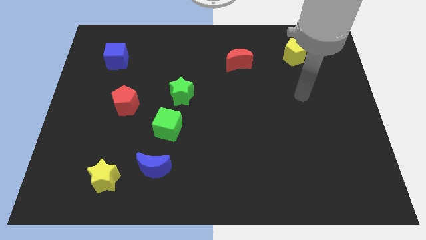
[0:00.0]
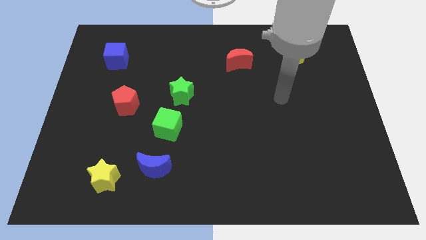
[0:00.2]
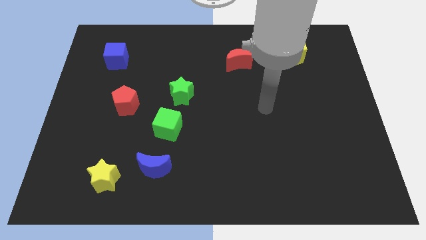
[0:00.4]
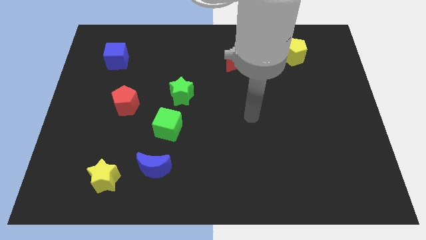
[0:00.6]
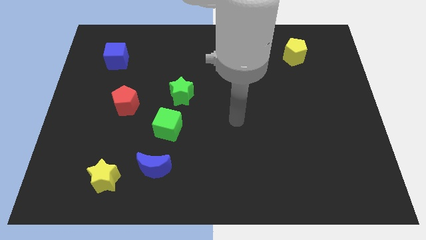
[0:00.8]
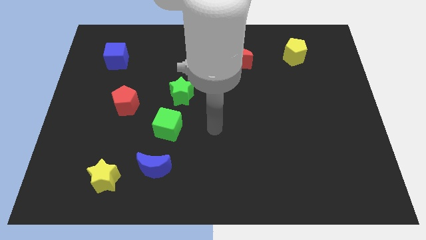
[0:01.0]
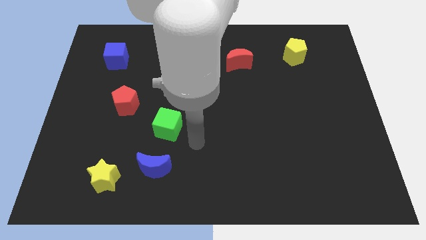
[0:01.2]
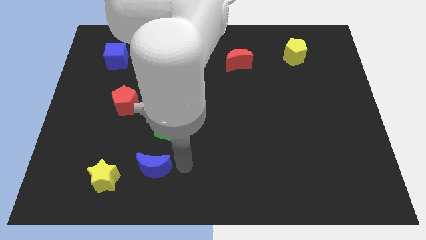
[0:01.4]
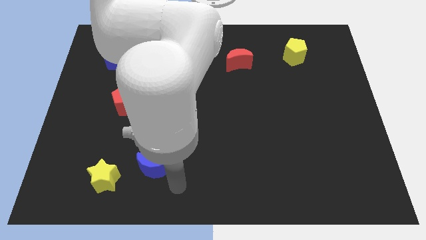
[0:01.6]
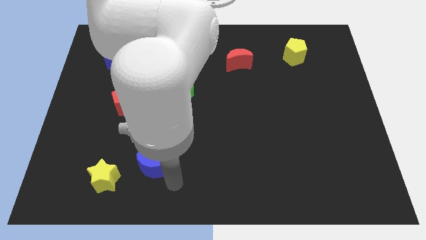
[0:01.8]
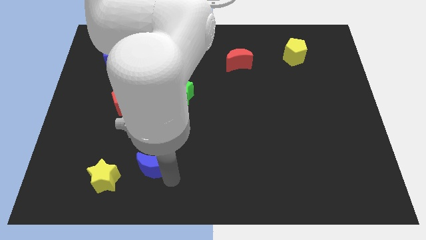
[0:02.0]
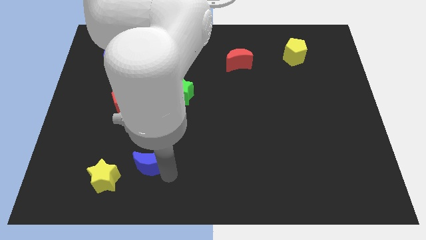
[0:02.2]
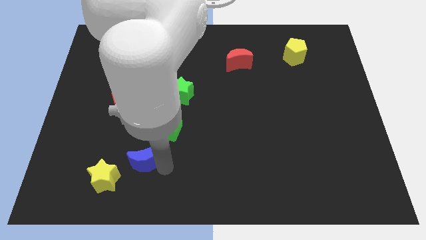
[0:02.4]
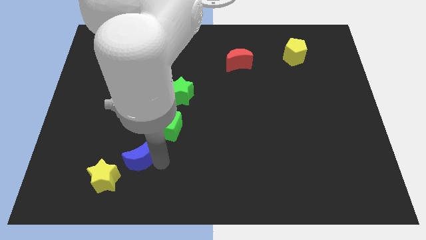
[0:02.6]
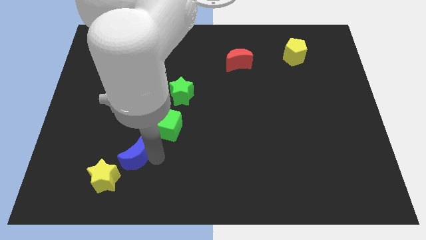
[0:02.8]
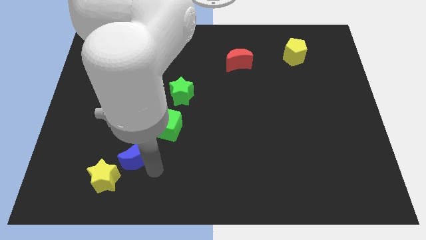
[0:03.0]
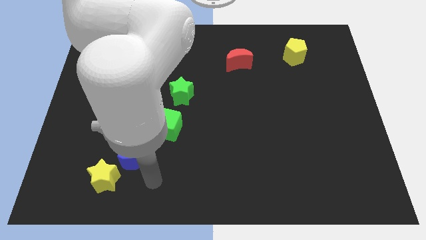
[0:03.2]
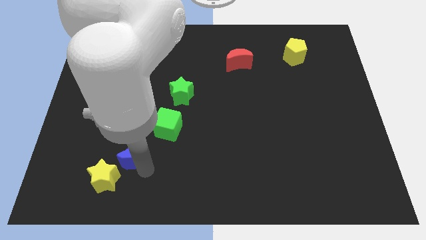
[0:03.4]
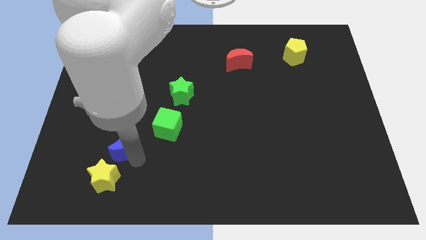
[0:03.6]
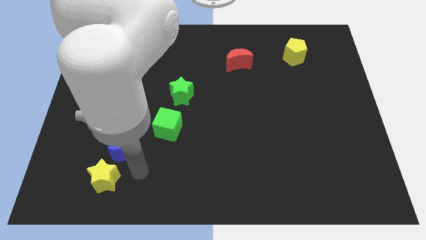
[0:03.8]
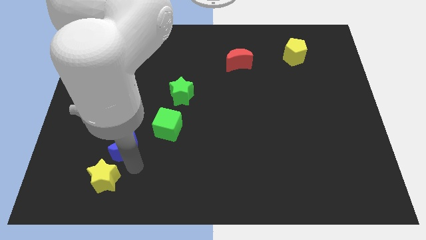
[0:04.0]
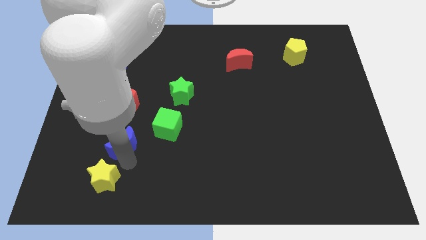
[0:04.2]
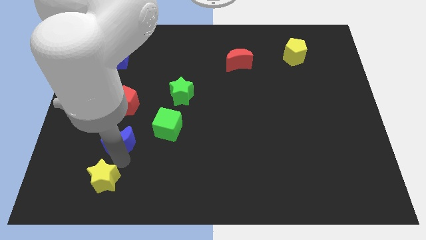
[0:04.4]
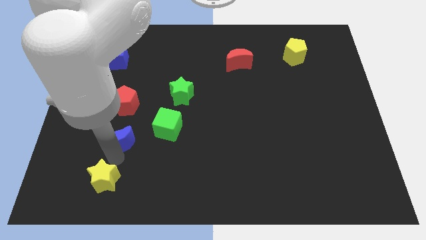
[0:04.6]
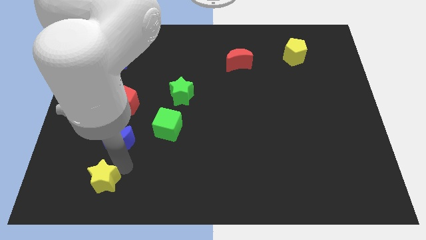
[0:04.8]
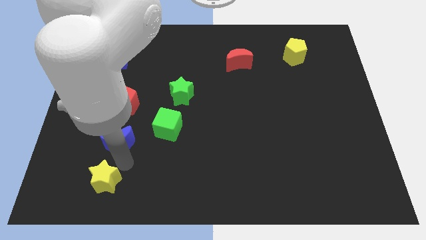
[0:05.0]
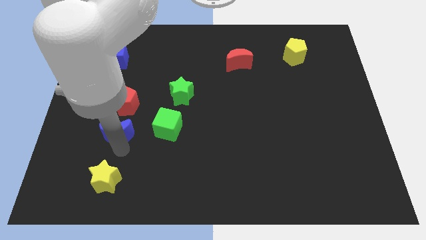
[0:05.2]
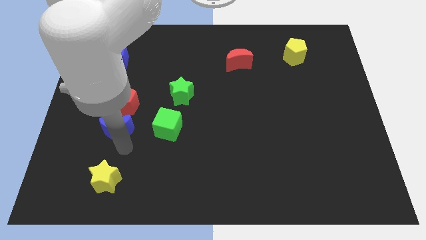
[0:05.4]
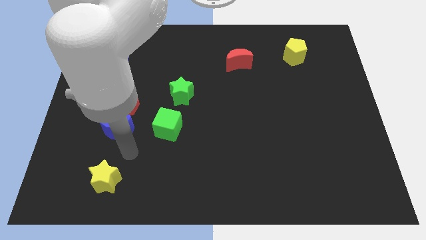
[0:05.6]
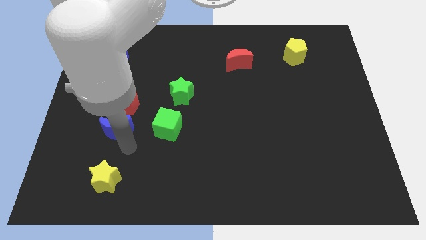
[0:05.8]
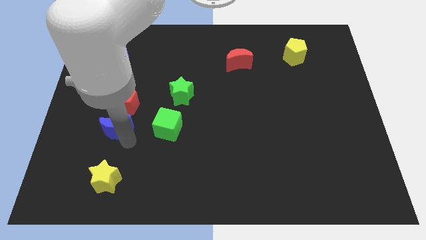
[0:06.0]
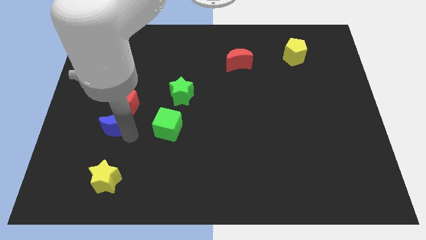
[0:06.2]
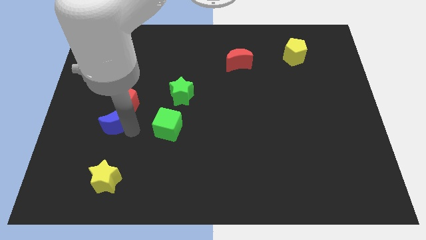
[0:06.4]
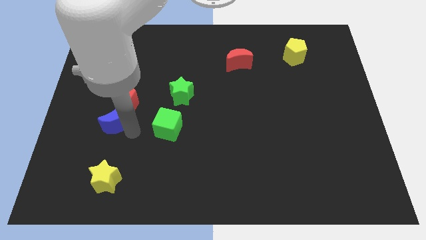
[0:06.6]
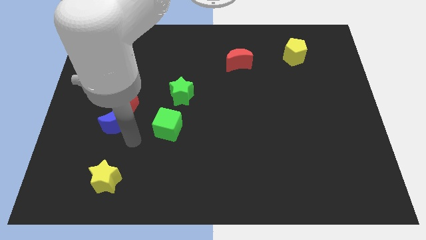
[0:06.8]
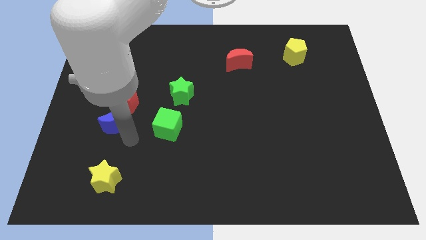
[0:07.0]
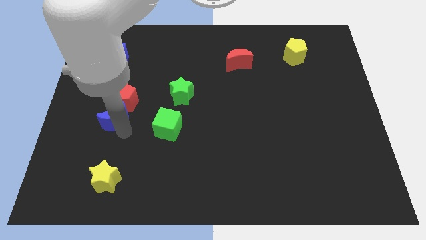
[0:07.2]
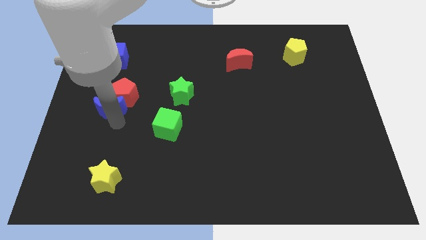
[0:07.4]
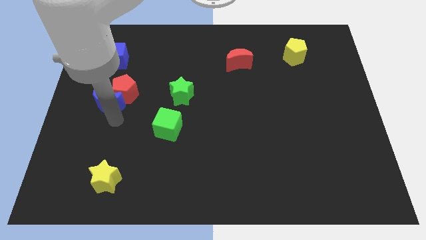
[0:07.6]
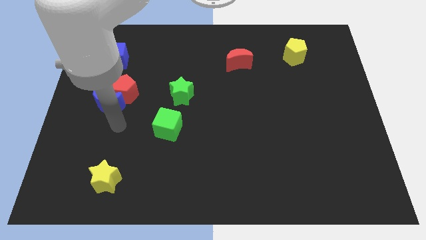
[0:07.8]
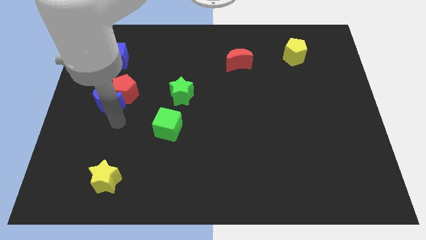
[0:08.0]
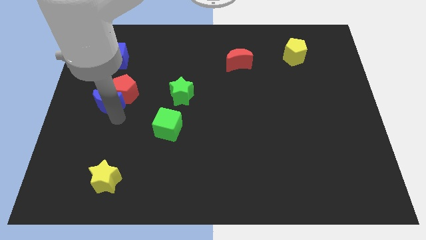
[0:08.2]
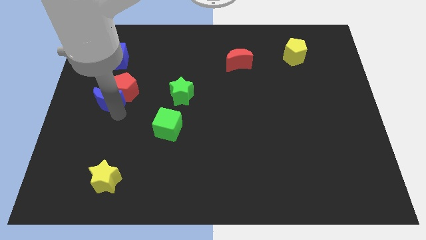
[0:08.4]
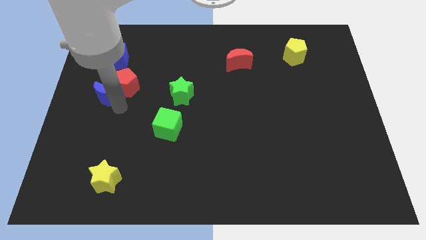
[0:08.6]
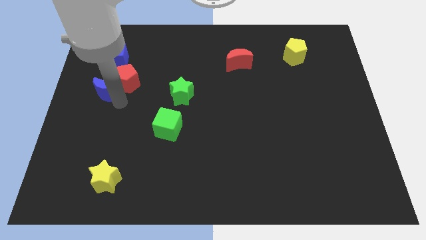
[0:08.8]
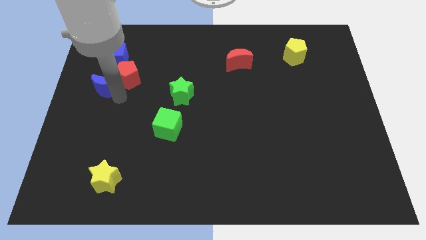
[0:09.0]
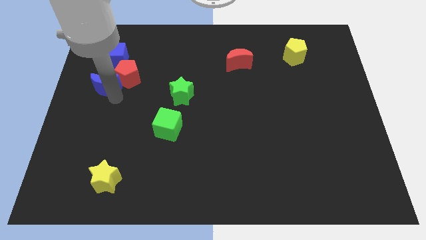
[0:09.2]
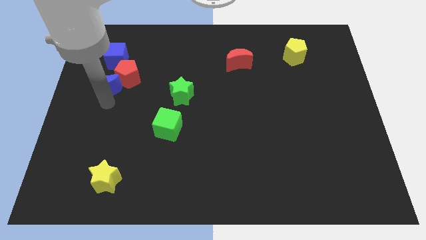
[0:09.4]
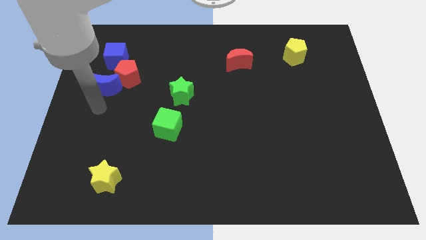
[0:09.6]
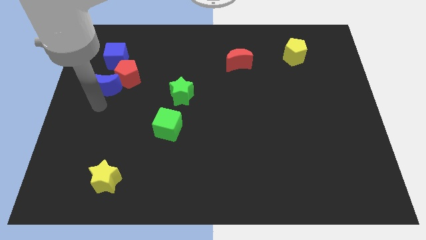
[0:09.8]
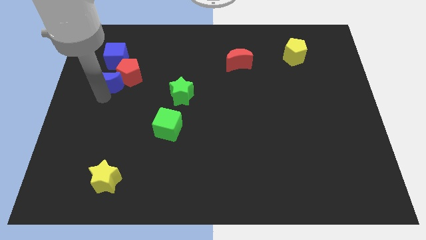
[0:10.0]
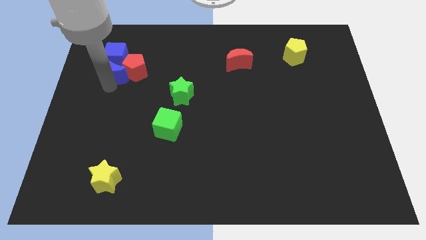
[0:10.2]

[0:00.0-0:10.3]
put the blue moon close to the blue cube

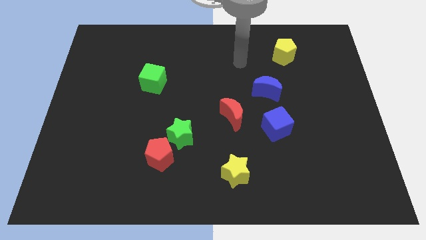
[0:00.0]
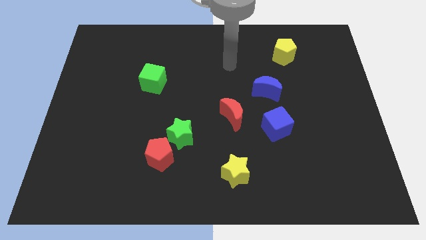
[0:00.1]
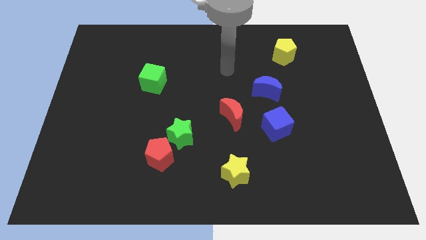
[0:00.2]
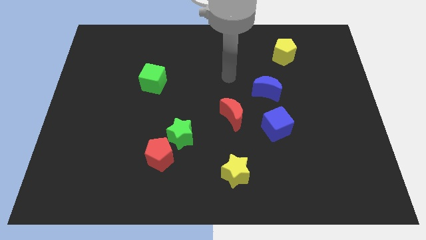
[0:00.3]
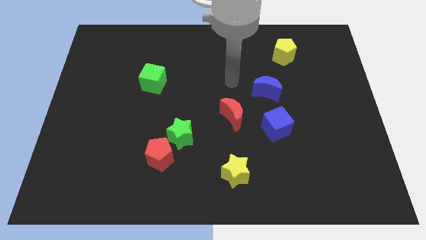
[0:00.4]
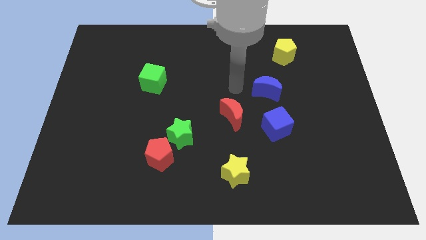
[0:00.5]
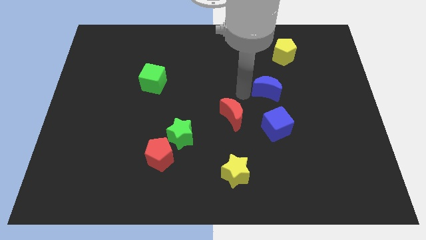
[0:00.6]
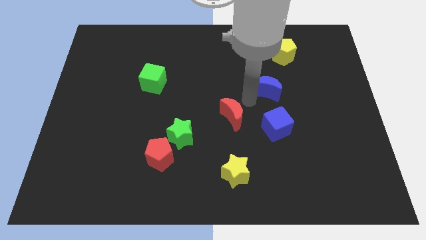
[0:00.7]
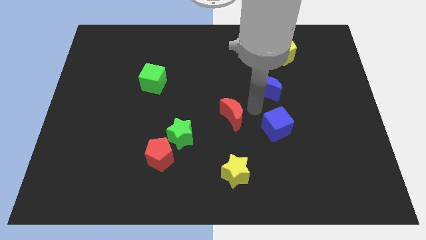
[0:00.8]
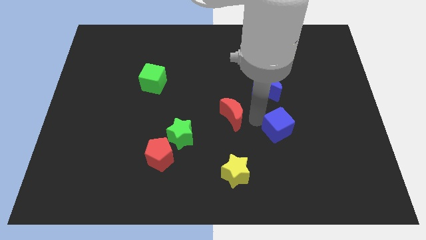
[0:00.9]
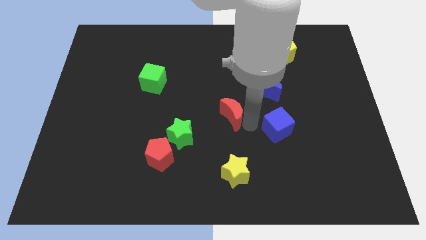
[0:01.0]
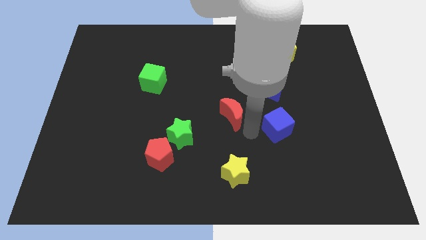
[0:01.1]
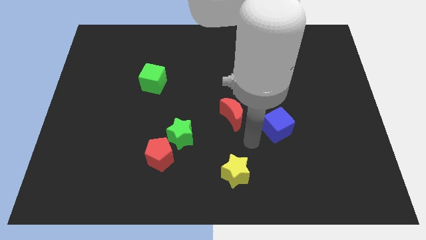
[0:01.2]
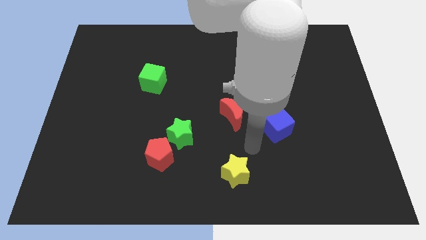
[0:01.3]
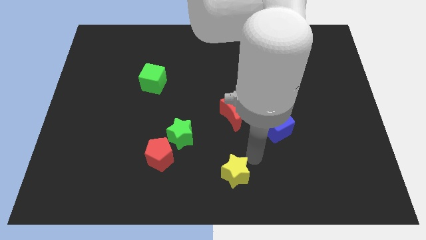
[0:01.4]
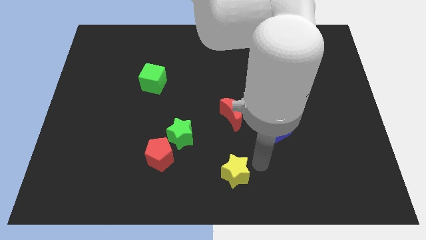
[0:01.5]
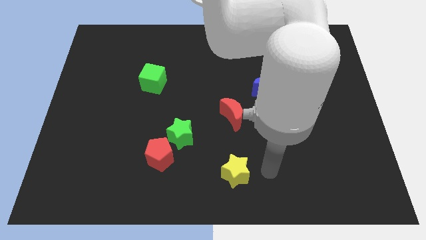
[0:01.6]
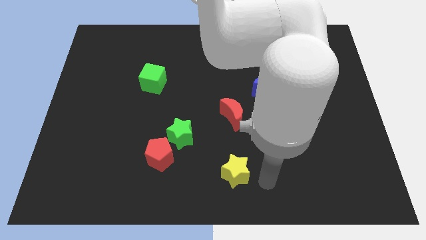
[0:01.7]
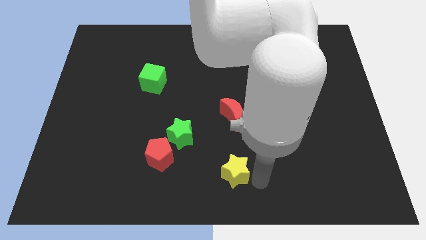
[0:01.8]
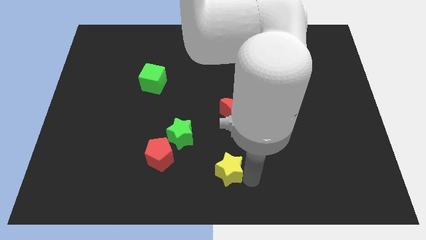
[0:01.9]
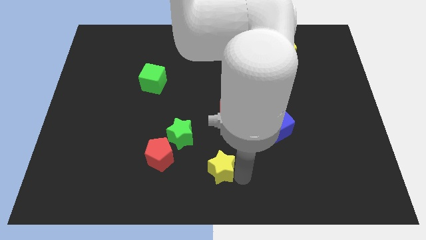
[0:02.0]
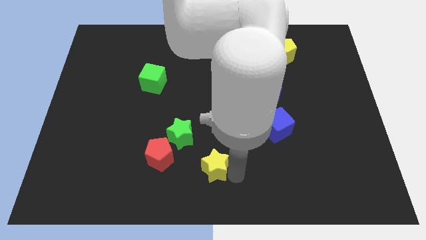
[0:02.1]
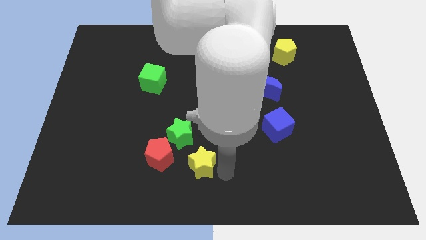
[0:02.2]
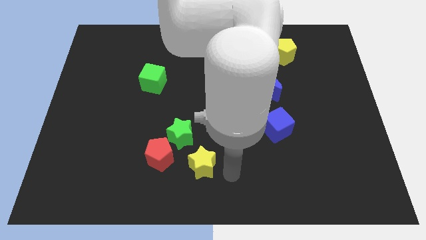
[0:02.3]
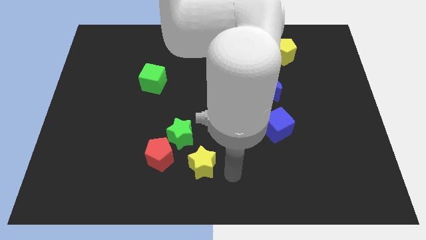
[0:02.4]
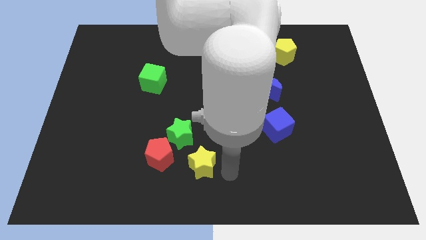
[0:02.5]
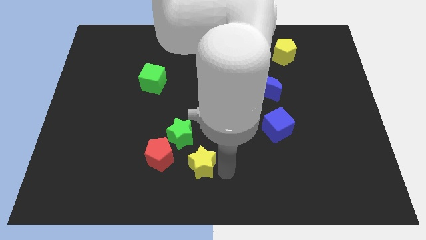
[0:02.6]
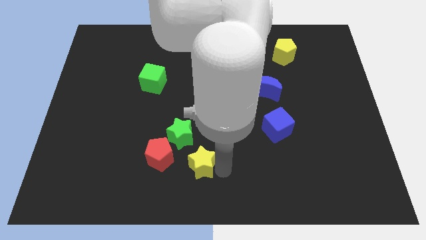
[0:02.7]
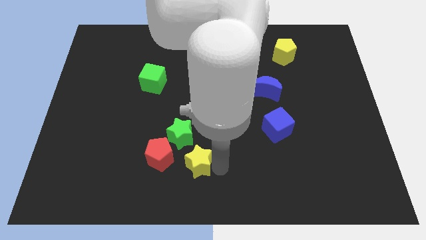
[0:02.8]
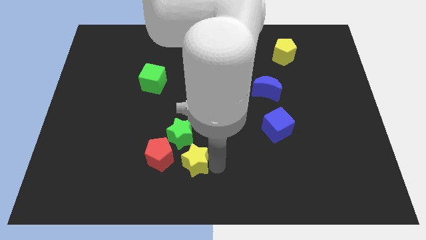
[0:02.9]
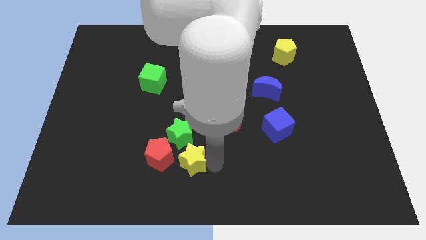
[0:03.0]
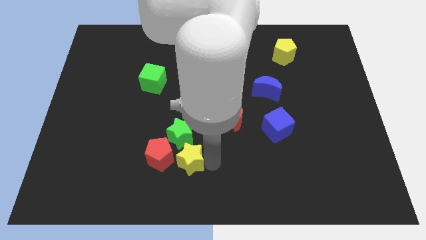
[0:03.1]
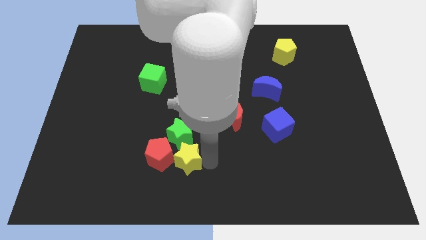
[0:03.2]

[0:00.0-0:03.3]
slide the yellow star next to the red pentagon
